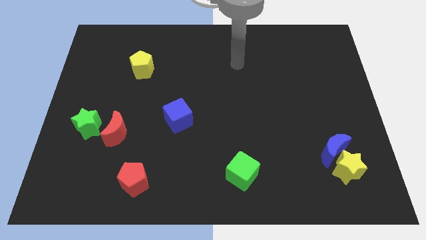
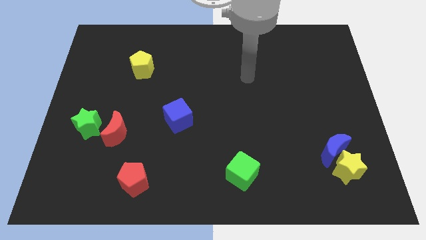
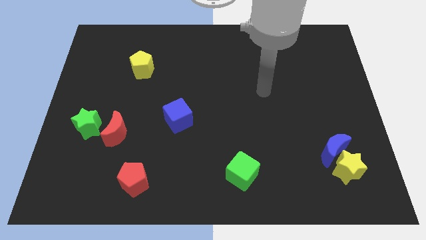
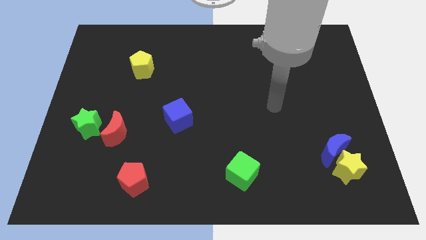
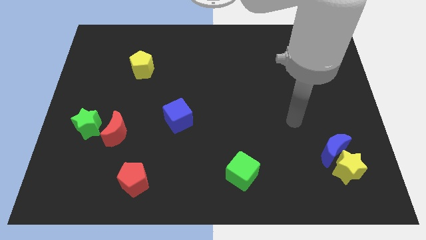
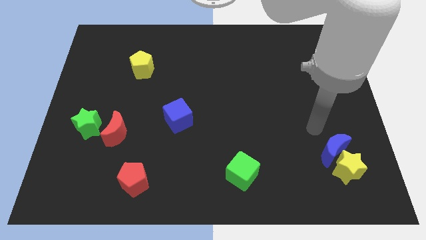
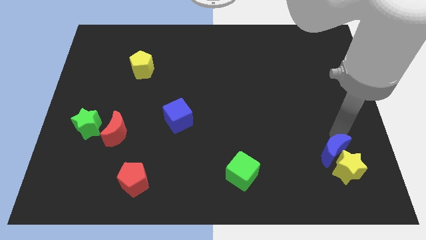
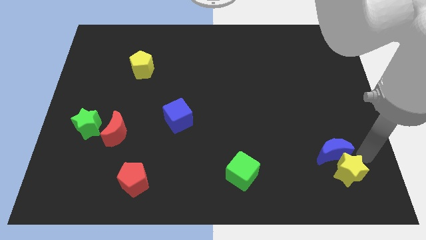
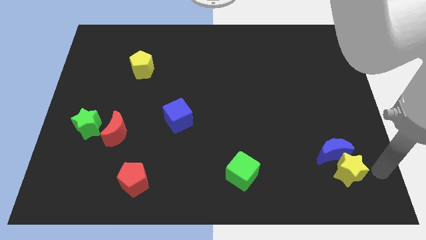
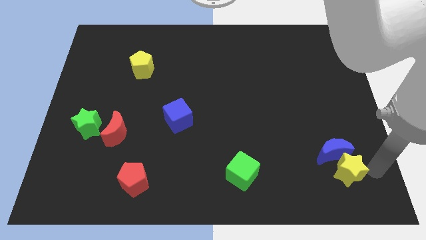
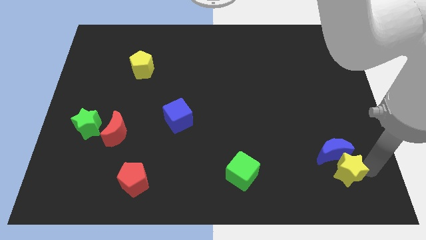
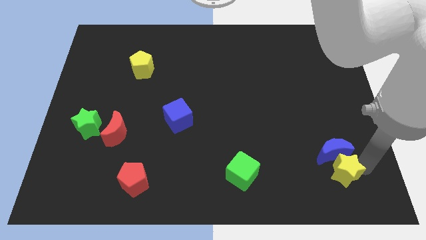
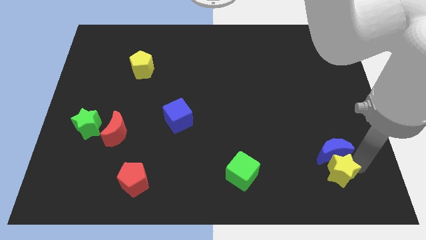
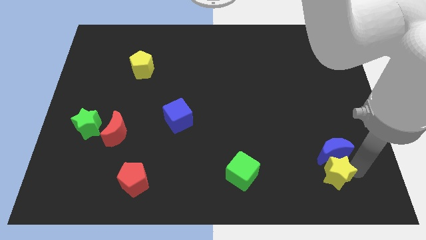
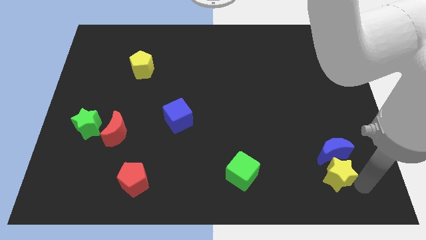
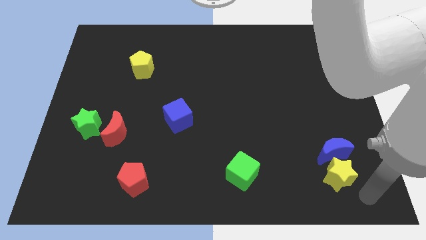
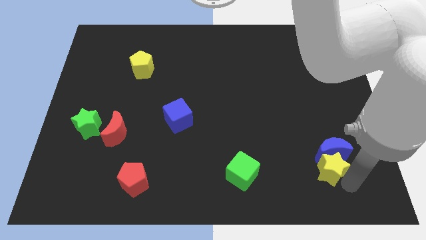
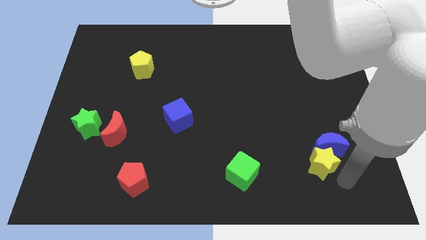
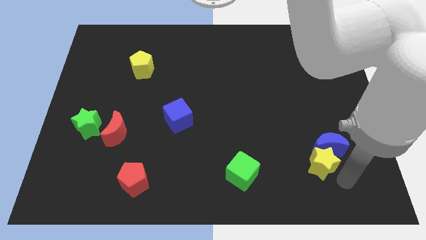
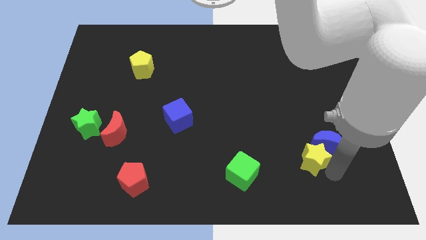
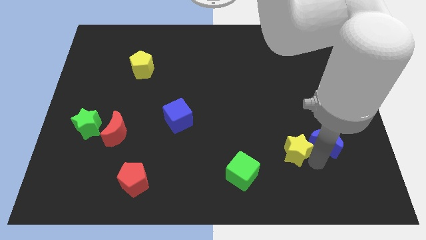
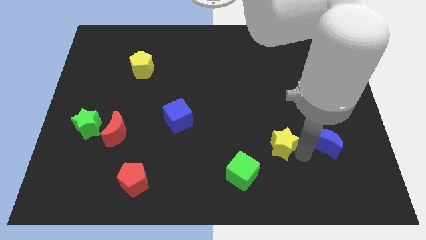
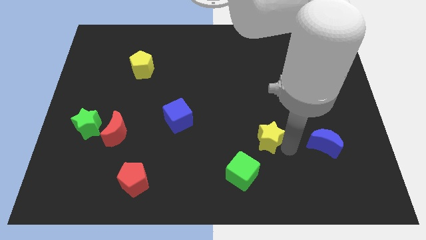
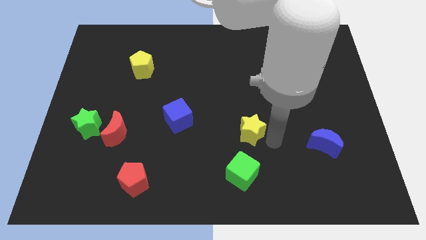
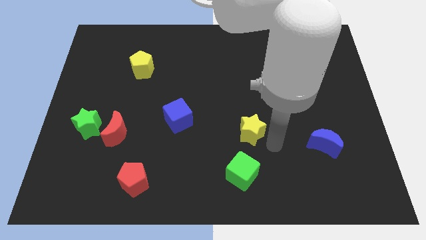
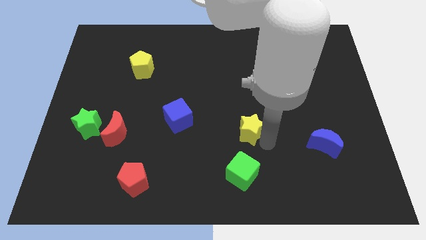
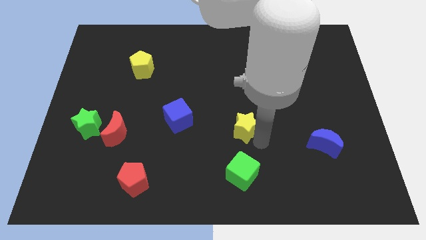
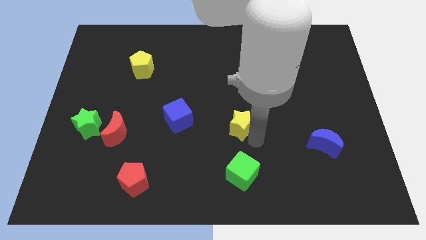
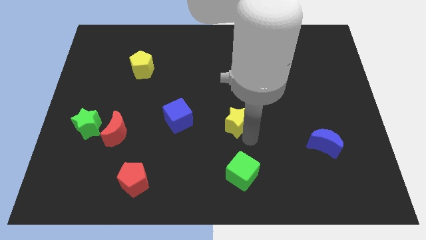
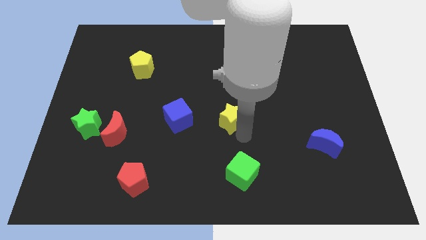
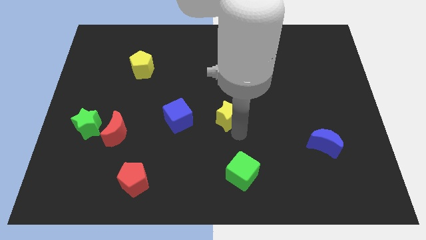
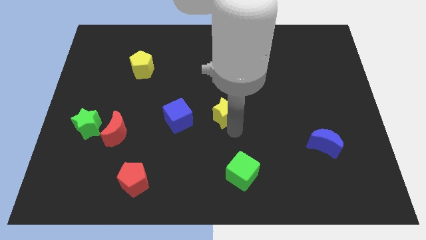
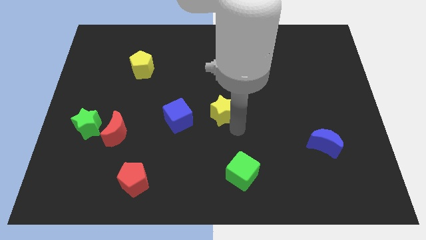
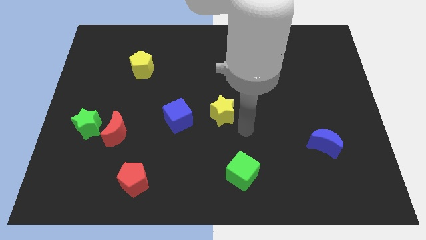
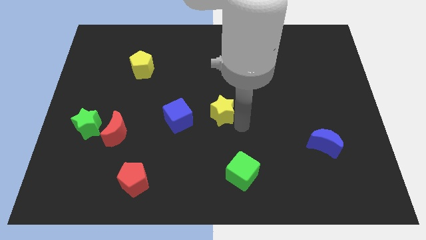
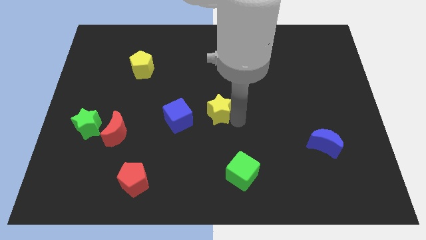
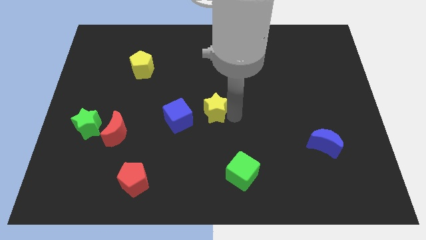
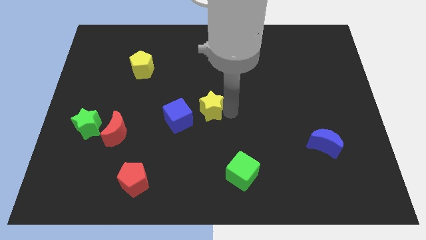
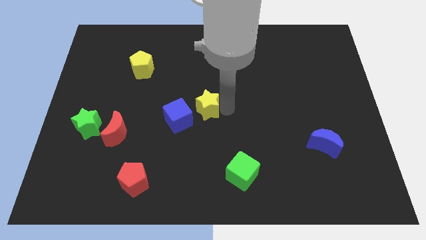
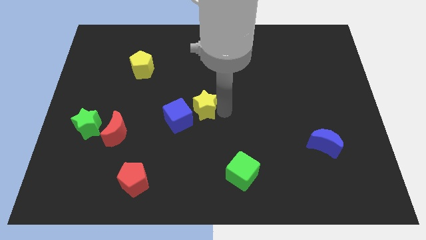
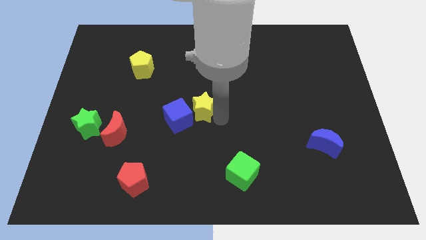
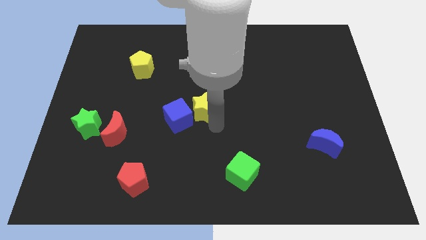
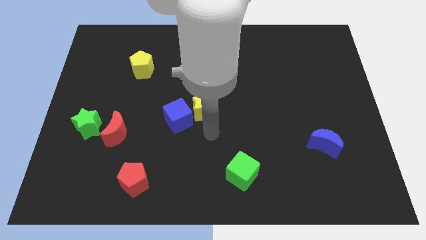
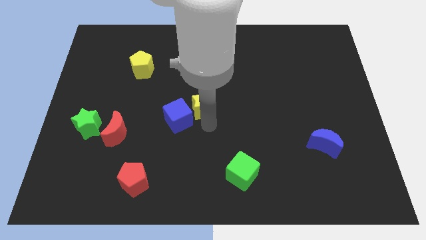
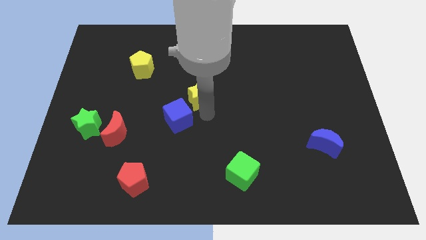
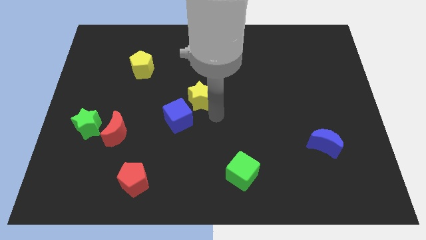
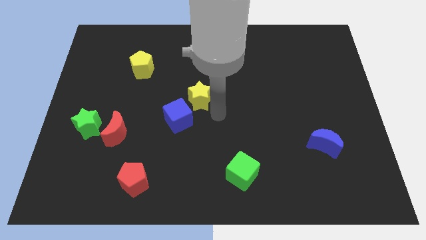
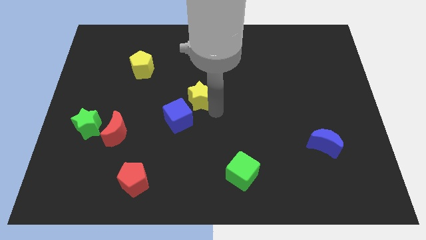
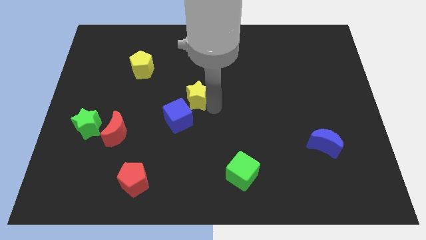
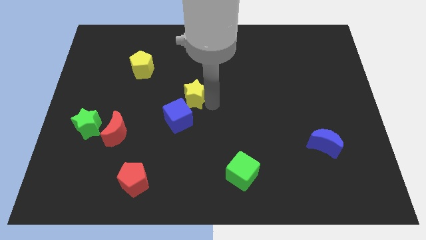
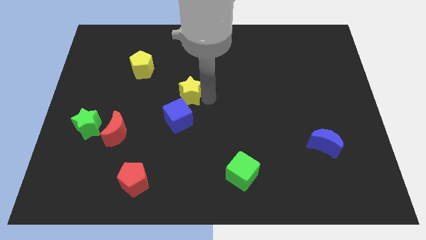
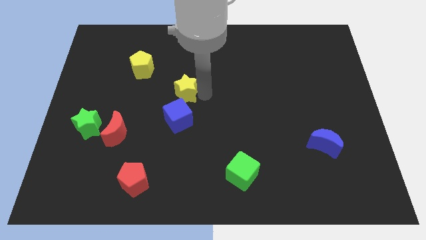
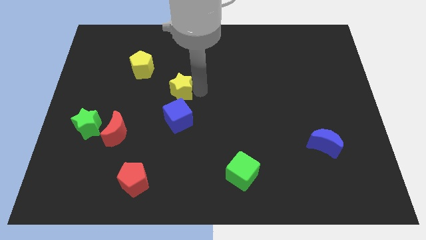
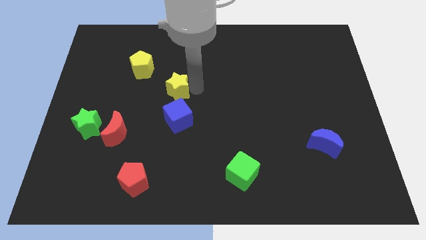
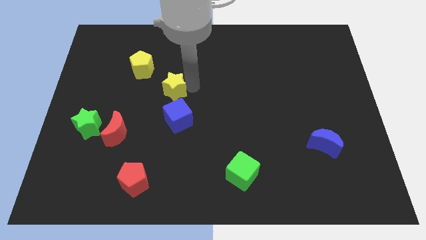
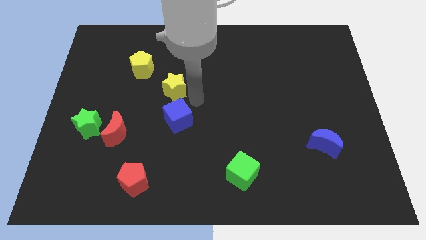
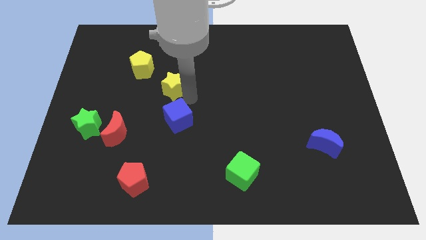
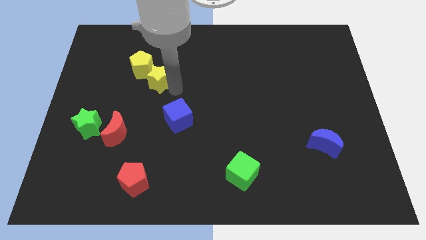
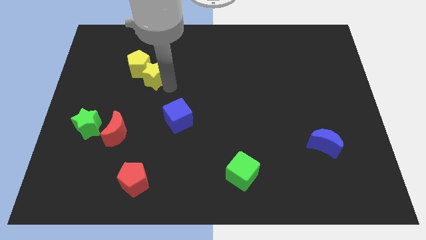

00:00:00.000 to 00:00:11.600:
move the yellow star to the yellow pentagon

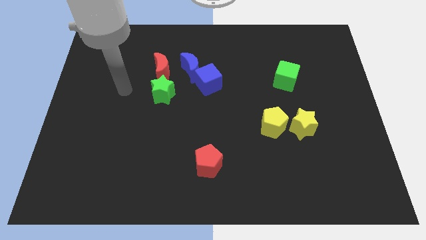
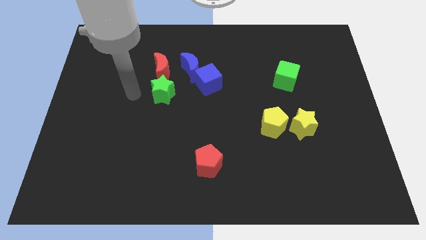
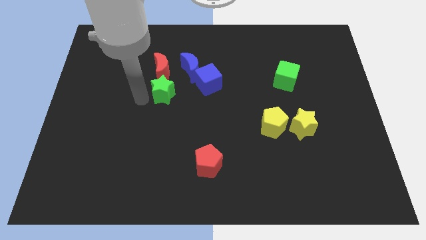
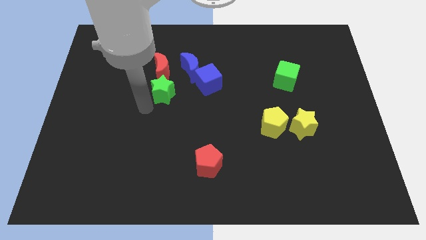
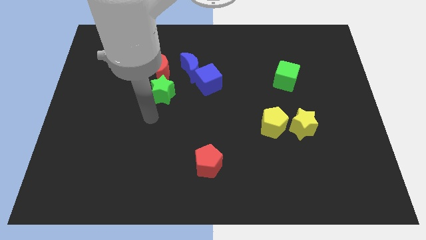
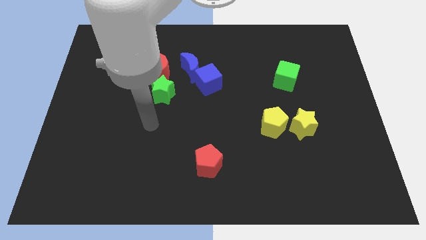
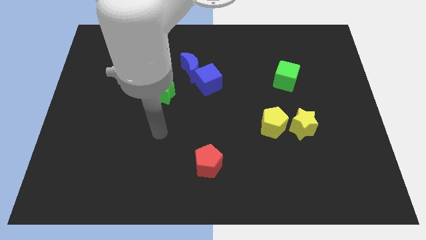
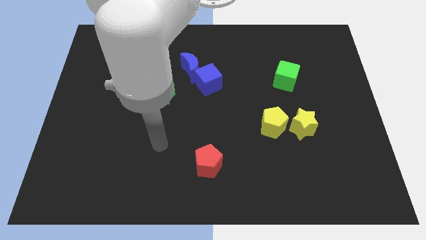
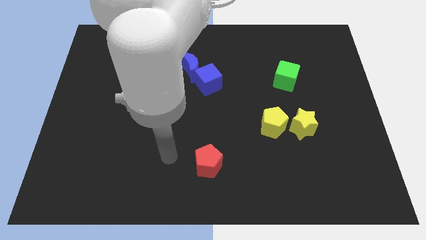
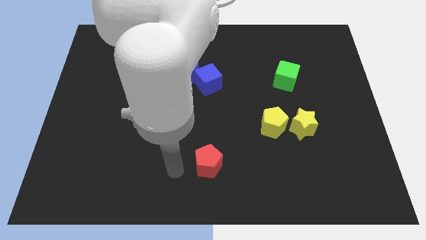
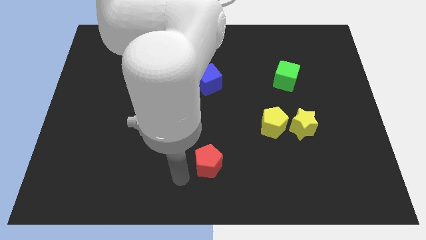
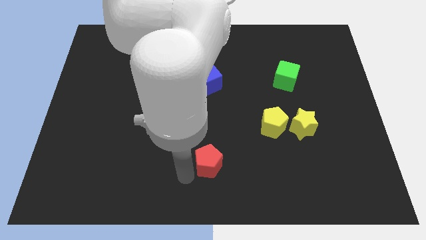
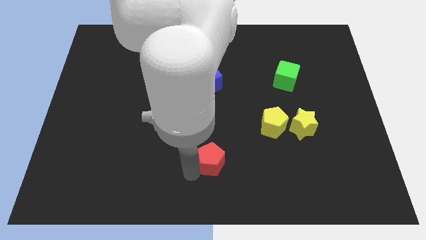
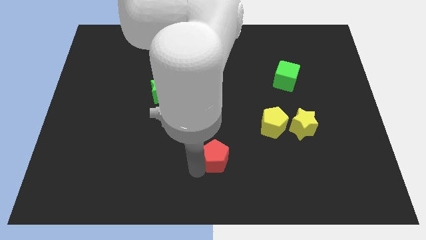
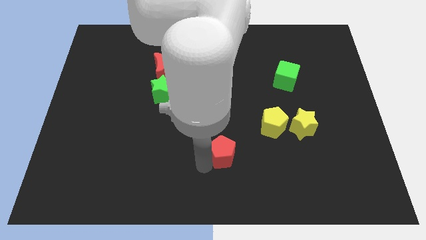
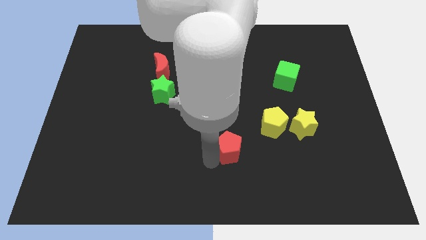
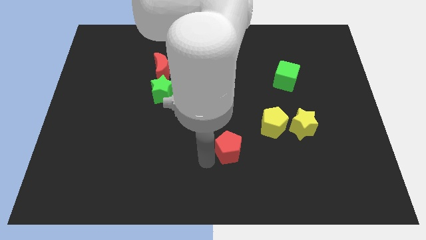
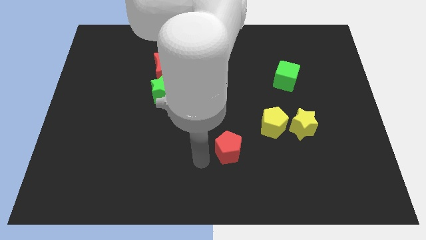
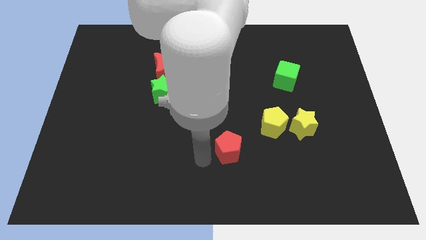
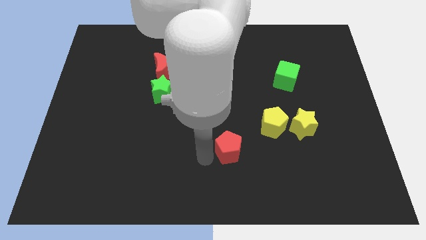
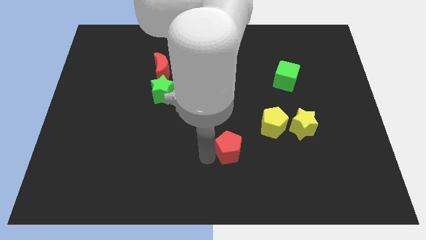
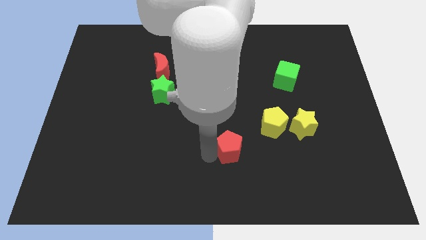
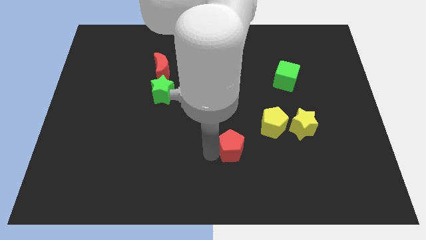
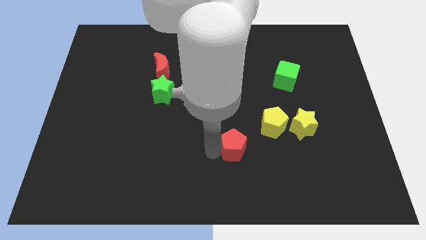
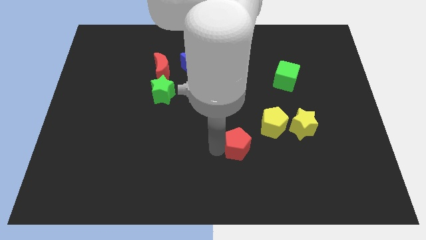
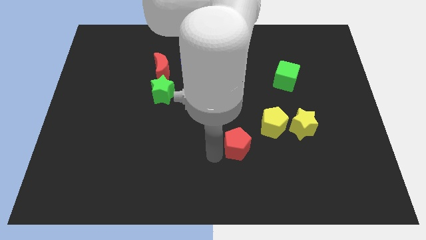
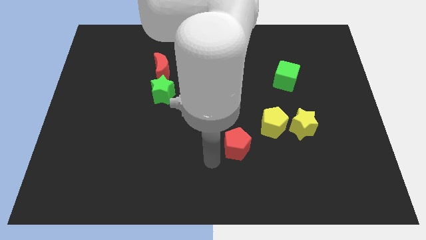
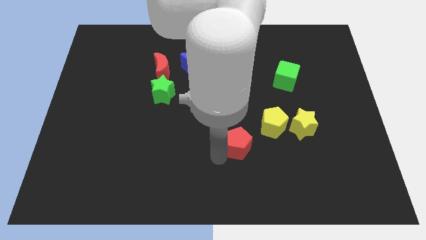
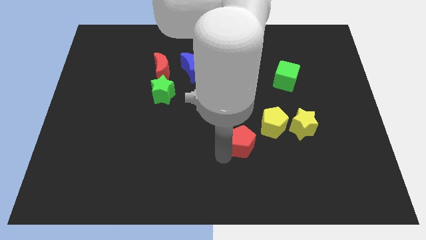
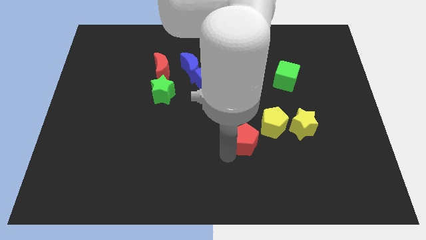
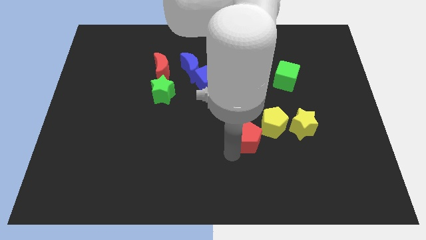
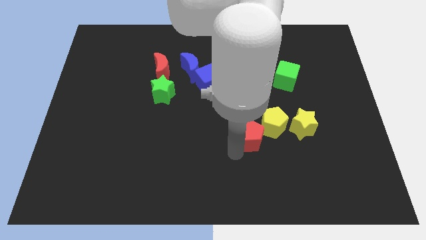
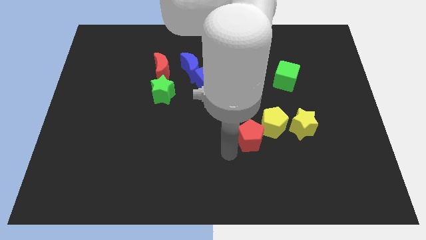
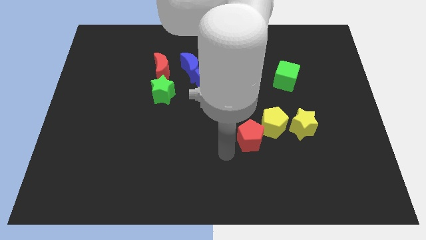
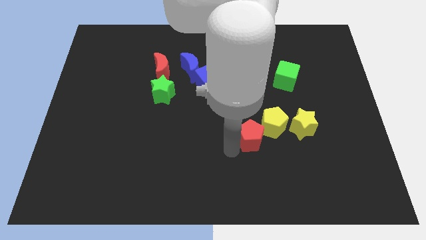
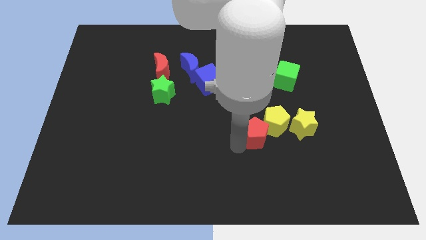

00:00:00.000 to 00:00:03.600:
push the red pentagon to the yellow pentagon
